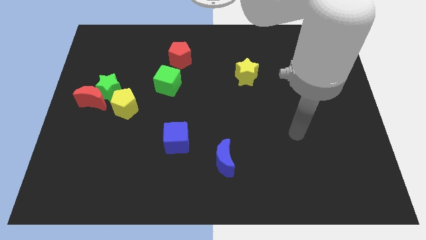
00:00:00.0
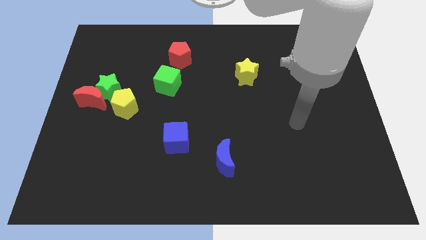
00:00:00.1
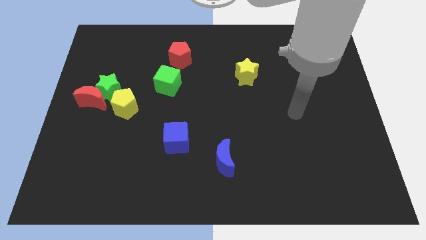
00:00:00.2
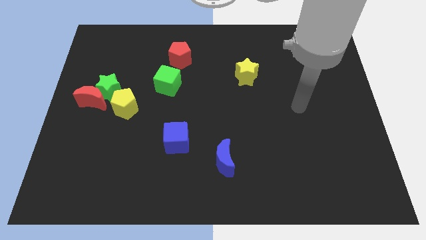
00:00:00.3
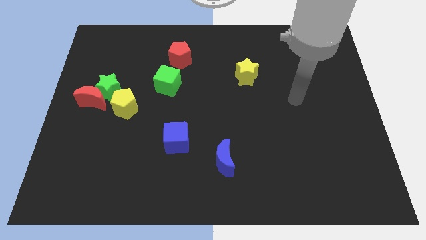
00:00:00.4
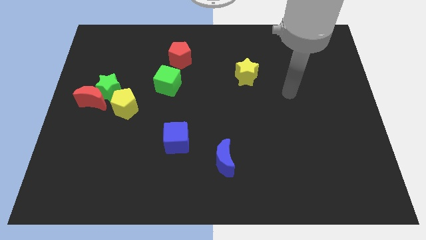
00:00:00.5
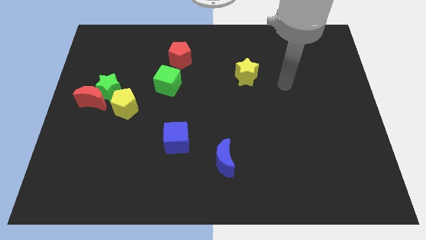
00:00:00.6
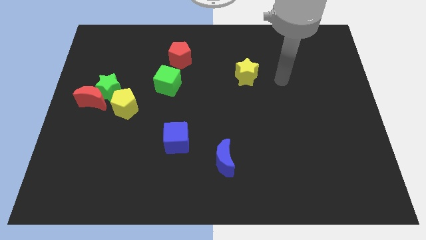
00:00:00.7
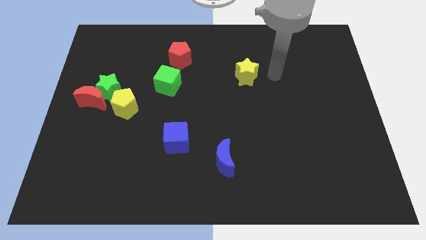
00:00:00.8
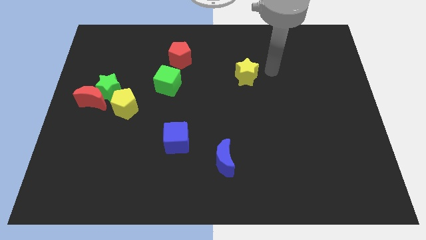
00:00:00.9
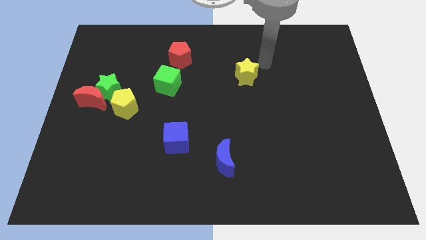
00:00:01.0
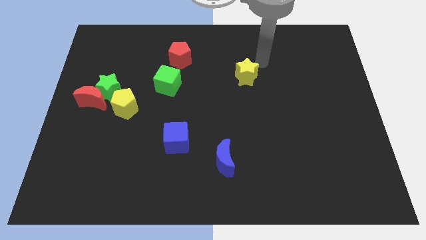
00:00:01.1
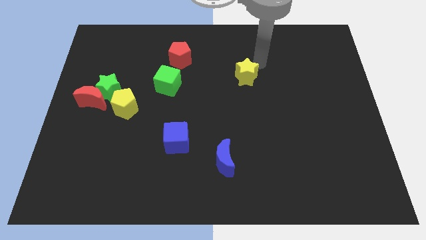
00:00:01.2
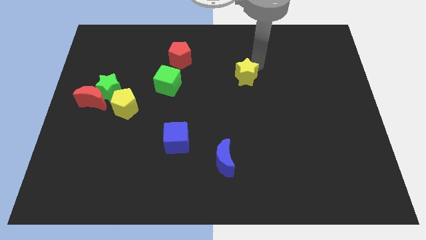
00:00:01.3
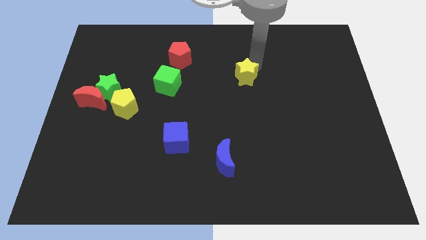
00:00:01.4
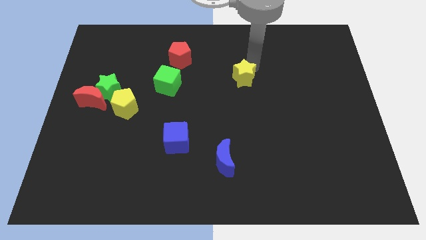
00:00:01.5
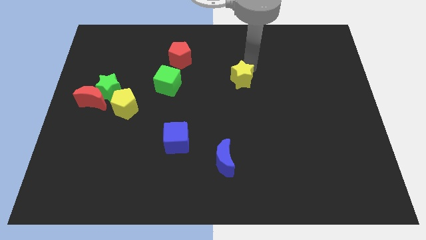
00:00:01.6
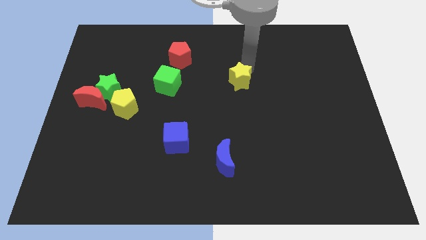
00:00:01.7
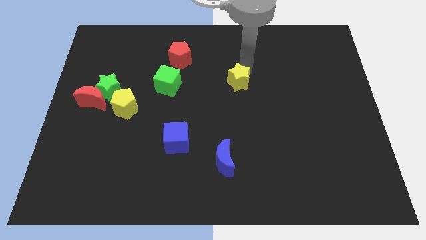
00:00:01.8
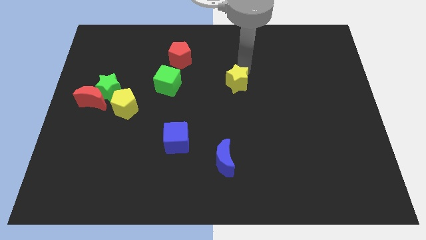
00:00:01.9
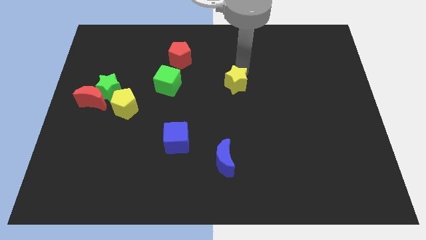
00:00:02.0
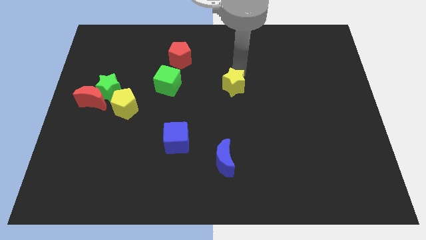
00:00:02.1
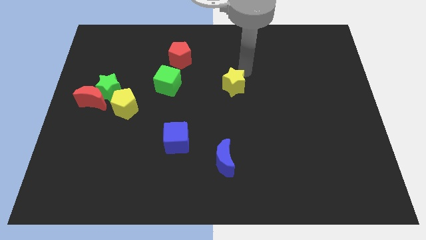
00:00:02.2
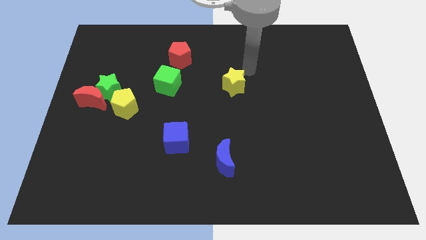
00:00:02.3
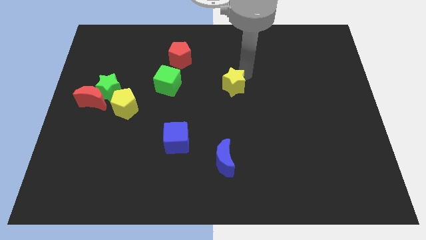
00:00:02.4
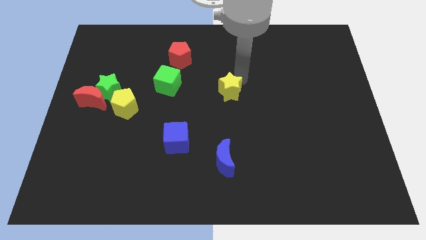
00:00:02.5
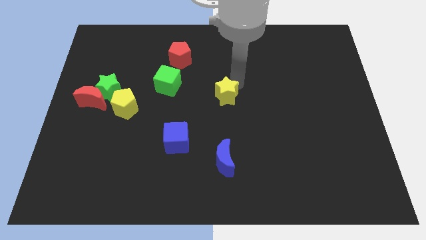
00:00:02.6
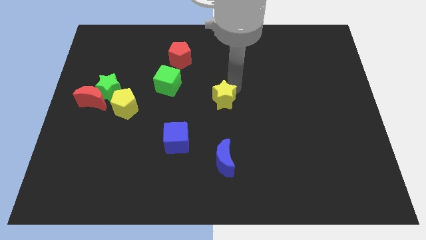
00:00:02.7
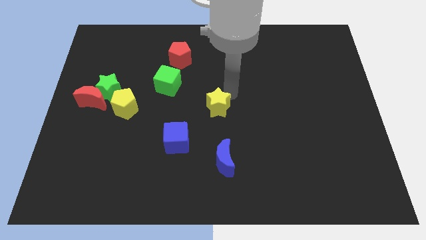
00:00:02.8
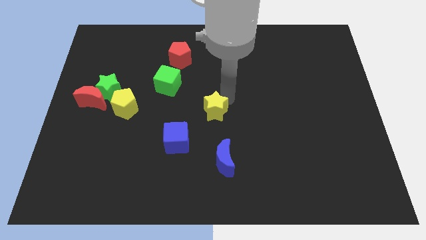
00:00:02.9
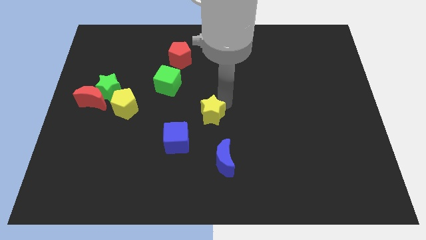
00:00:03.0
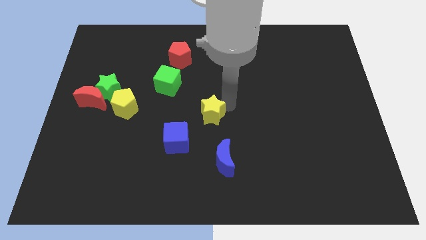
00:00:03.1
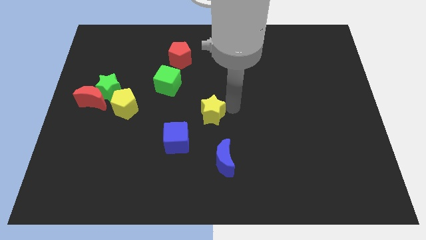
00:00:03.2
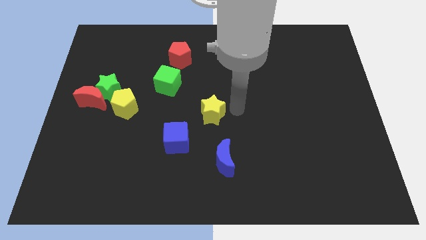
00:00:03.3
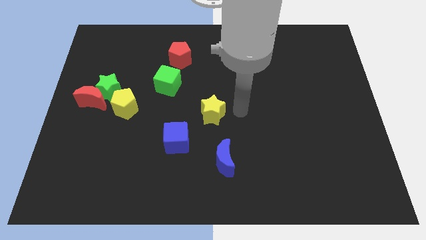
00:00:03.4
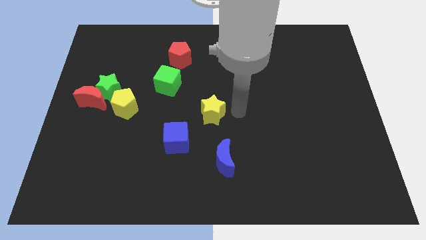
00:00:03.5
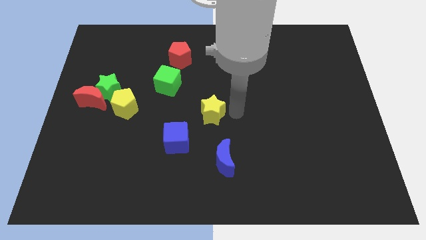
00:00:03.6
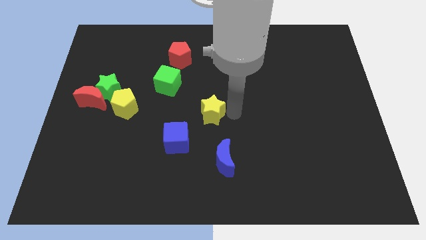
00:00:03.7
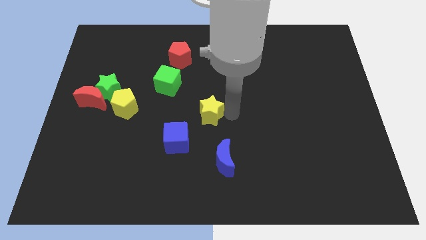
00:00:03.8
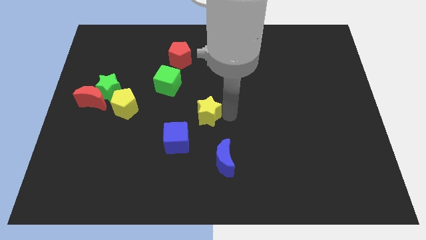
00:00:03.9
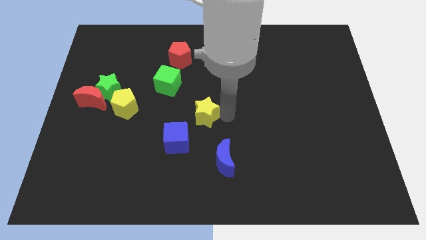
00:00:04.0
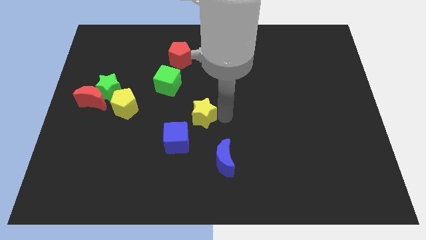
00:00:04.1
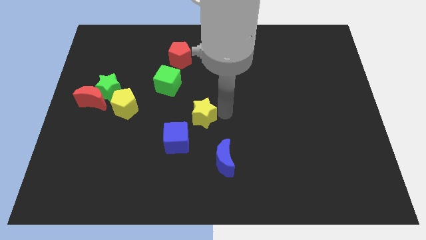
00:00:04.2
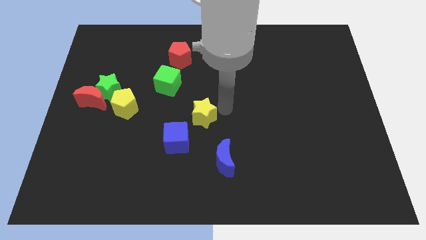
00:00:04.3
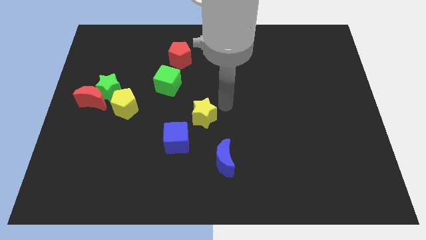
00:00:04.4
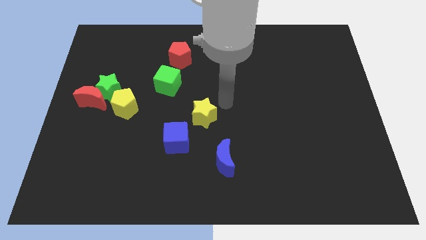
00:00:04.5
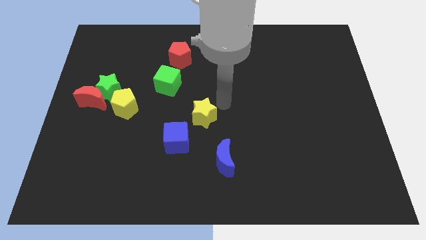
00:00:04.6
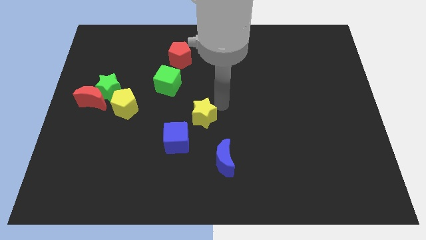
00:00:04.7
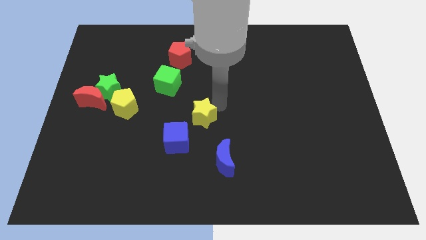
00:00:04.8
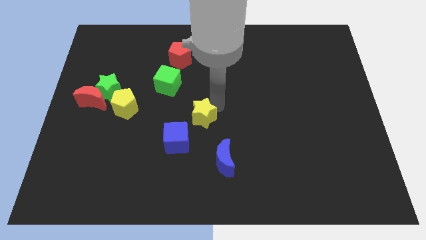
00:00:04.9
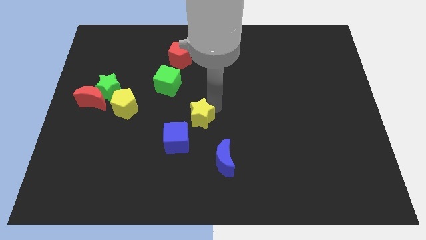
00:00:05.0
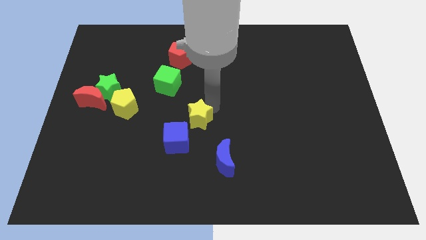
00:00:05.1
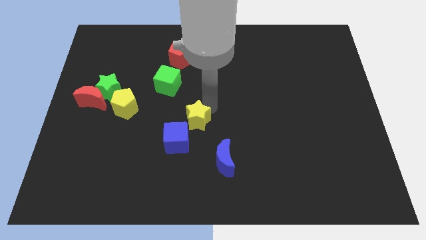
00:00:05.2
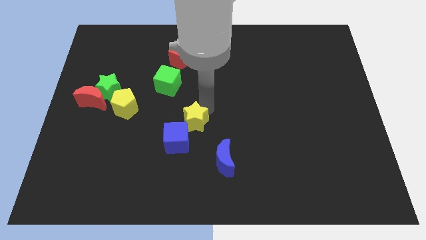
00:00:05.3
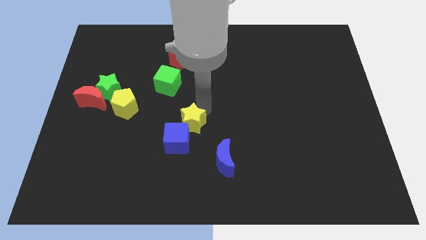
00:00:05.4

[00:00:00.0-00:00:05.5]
move the yellow star towards the blue cube

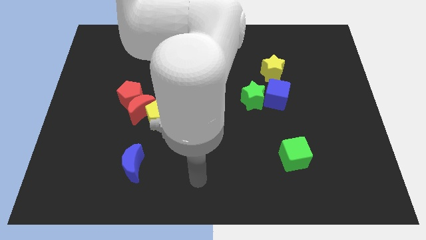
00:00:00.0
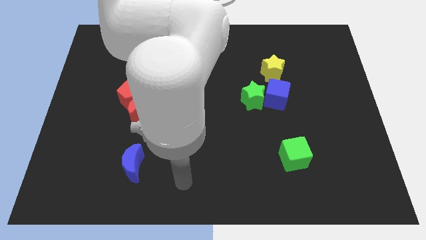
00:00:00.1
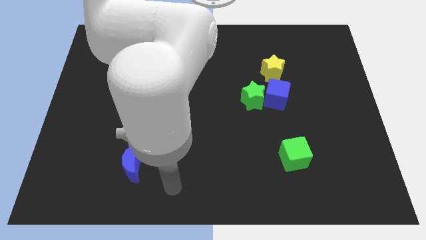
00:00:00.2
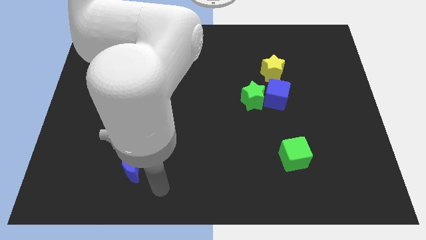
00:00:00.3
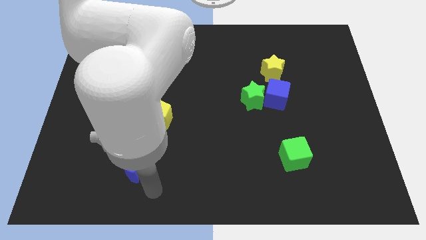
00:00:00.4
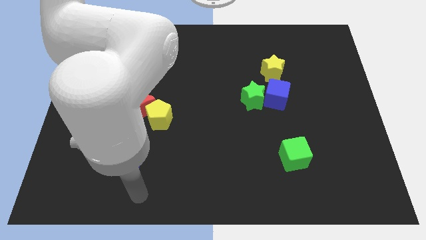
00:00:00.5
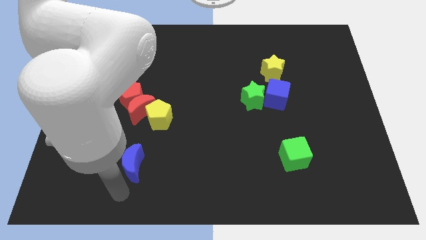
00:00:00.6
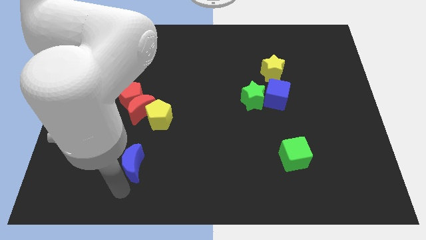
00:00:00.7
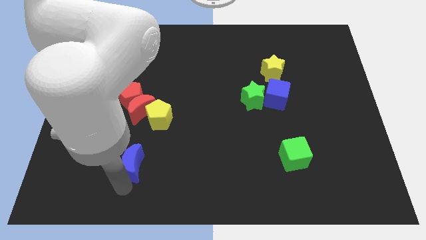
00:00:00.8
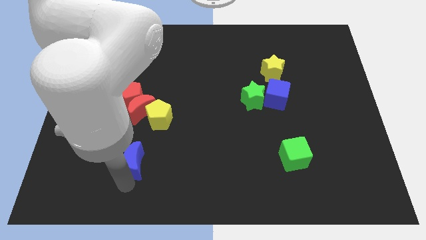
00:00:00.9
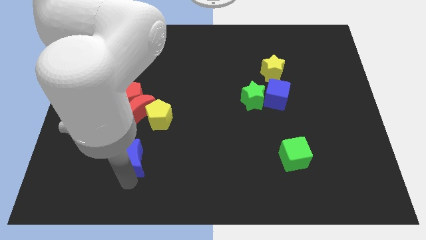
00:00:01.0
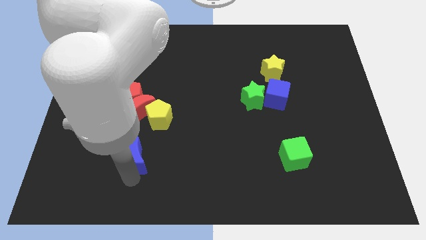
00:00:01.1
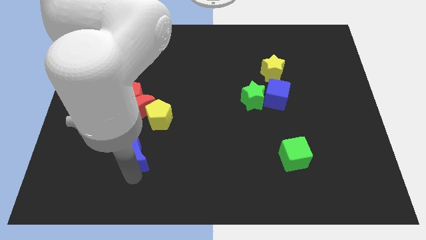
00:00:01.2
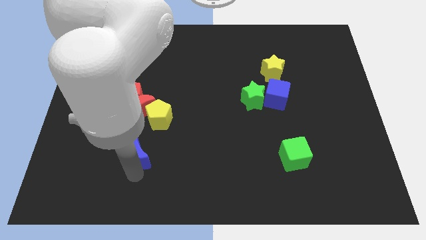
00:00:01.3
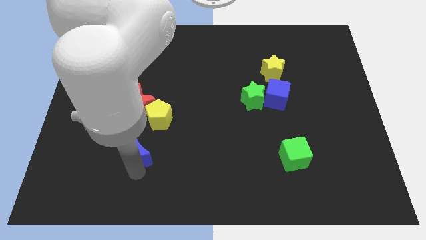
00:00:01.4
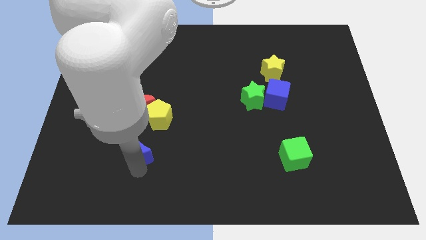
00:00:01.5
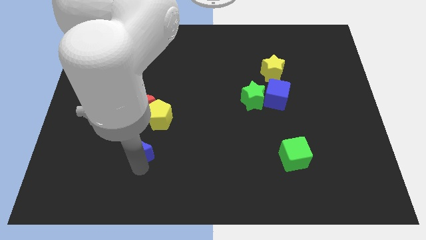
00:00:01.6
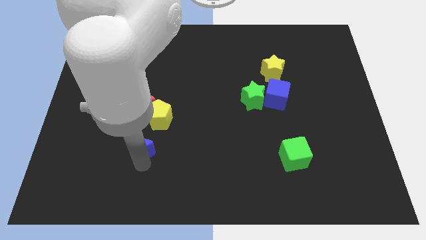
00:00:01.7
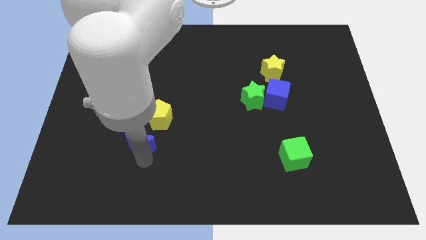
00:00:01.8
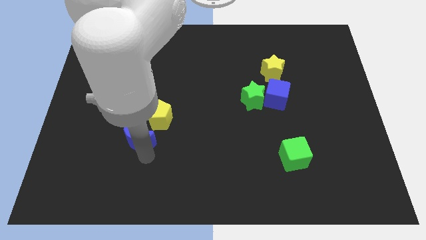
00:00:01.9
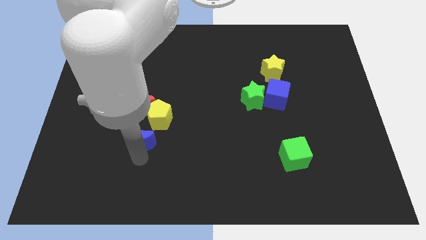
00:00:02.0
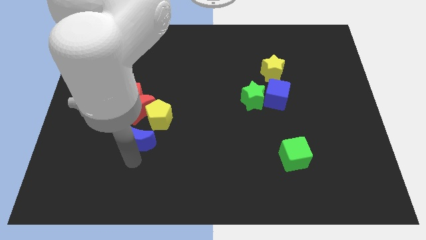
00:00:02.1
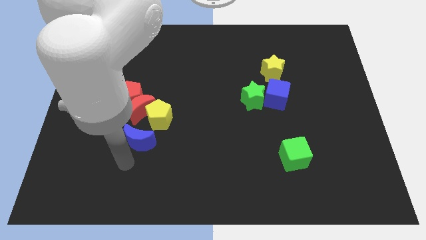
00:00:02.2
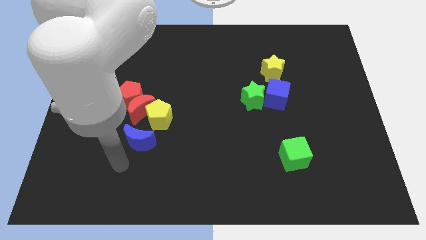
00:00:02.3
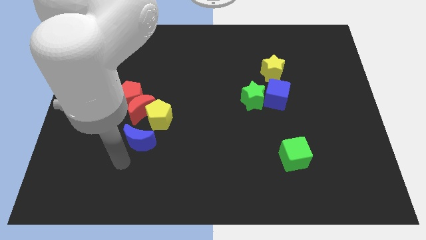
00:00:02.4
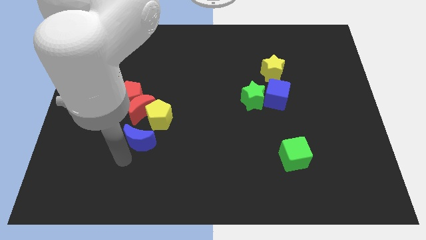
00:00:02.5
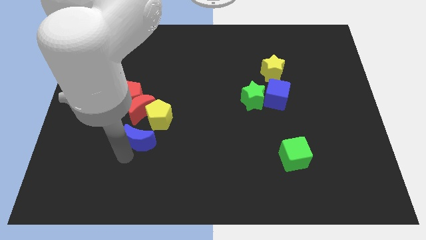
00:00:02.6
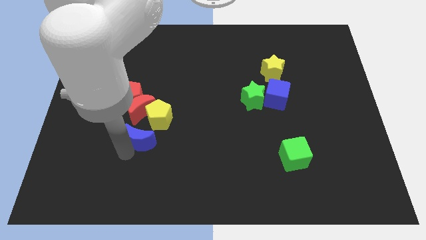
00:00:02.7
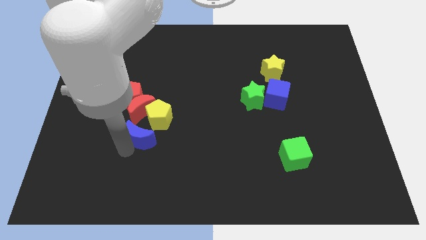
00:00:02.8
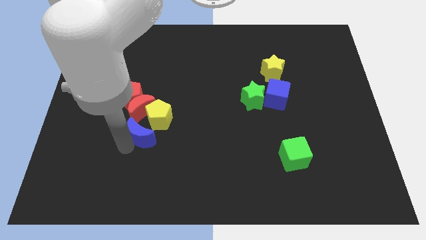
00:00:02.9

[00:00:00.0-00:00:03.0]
push the blue moon close to the yellow pentagon

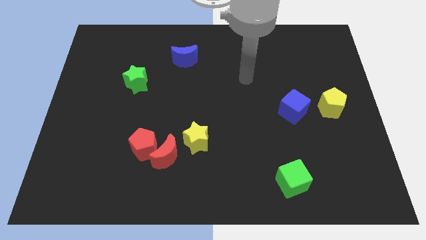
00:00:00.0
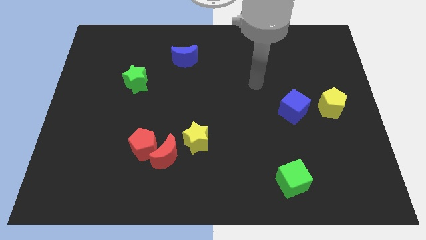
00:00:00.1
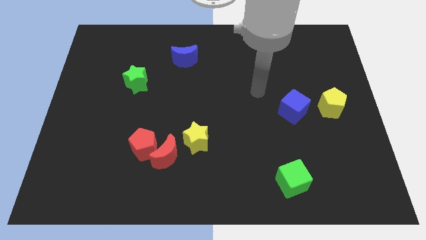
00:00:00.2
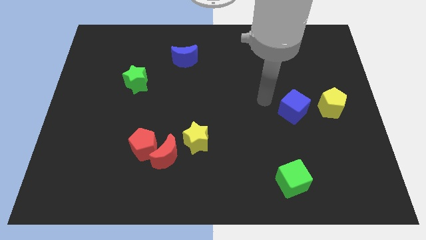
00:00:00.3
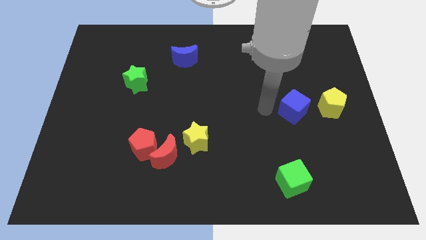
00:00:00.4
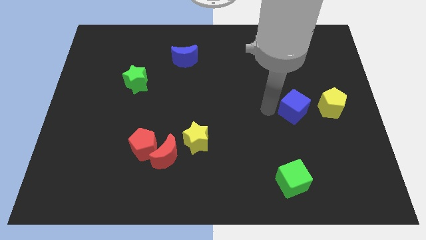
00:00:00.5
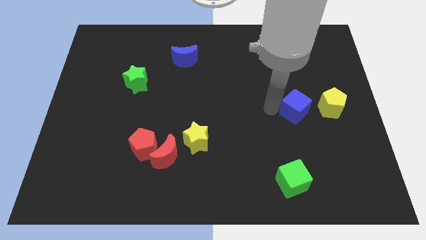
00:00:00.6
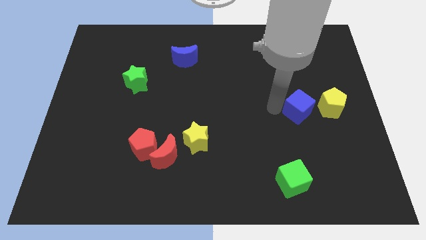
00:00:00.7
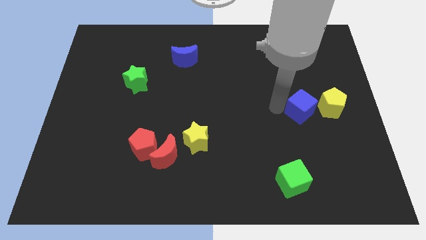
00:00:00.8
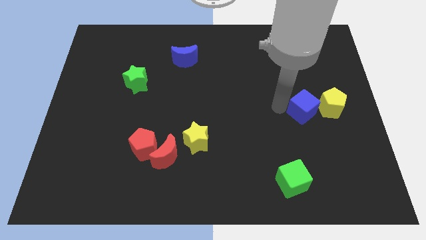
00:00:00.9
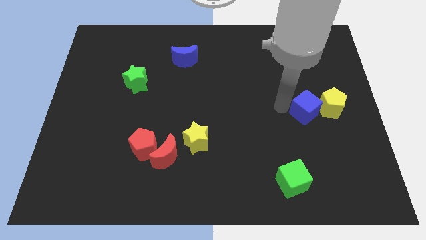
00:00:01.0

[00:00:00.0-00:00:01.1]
put the blue cube to the yellow pentagon
